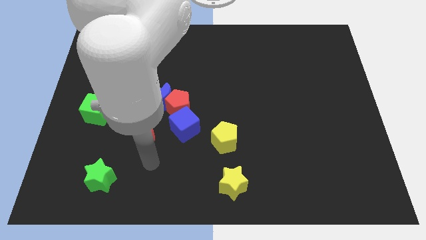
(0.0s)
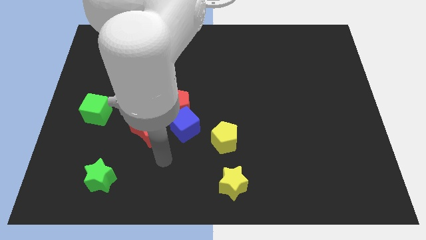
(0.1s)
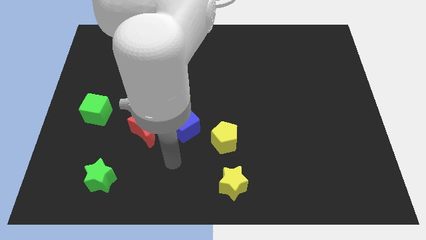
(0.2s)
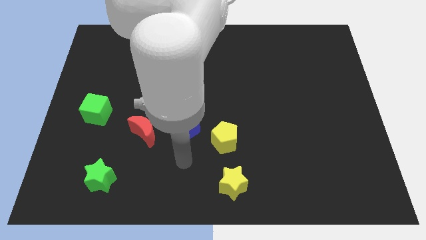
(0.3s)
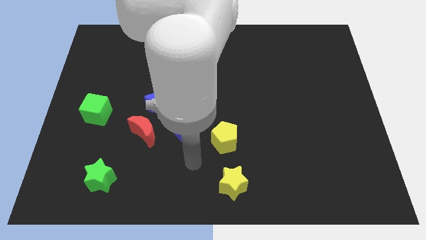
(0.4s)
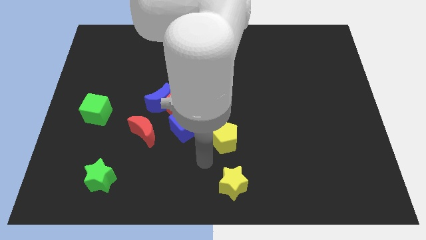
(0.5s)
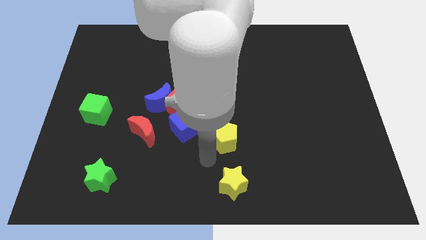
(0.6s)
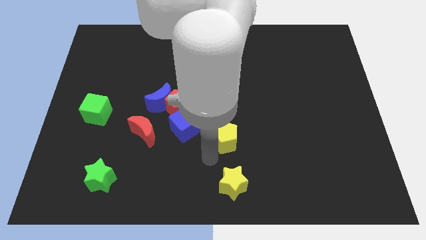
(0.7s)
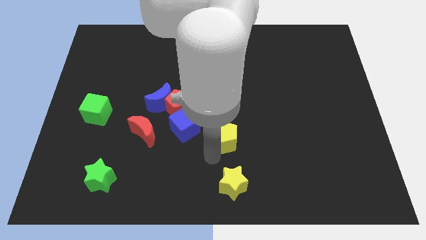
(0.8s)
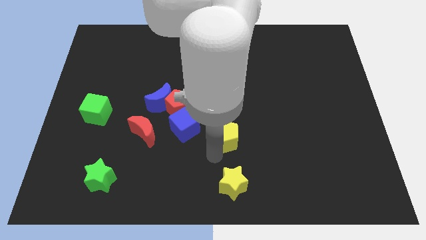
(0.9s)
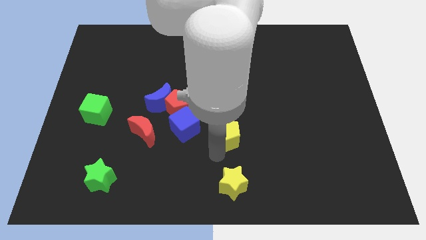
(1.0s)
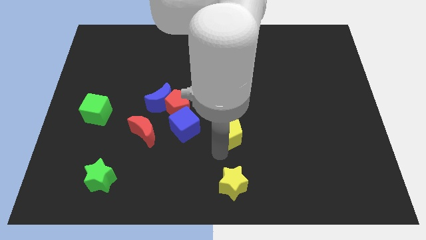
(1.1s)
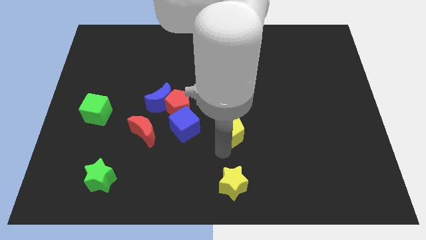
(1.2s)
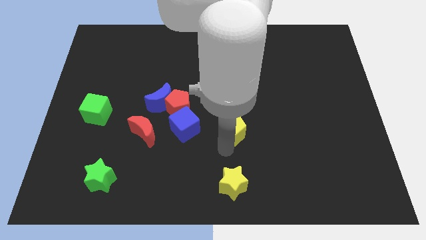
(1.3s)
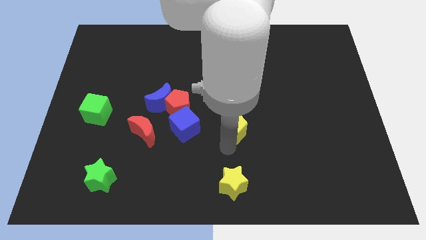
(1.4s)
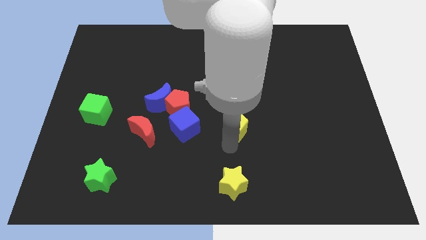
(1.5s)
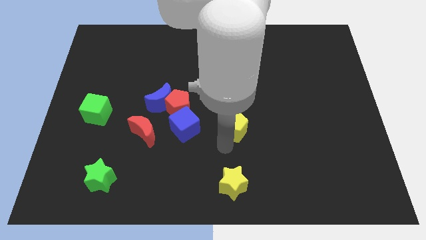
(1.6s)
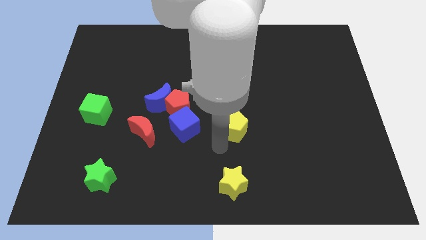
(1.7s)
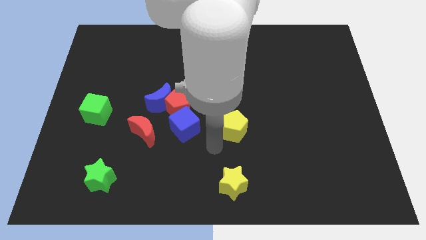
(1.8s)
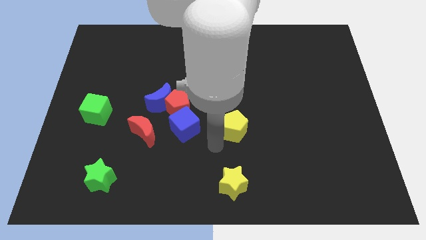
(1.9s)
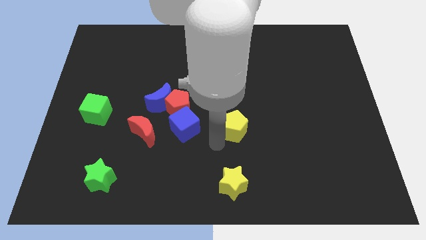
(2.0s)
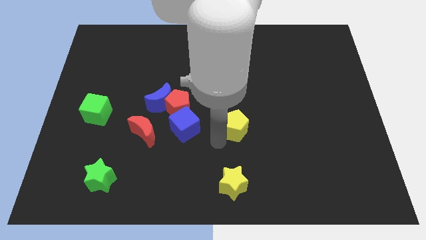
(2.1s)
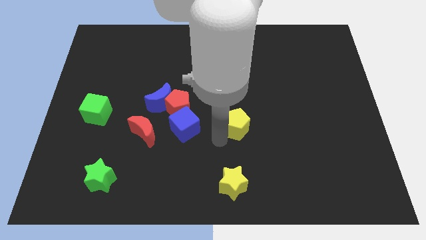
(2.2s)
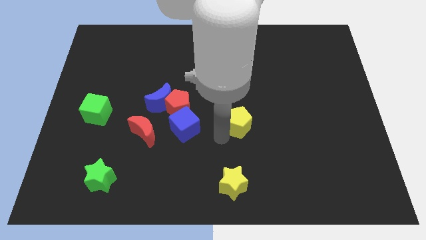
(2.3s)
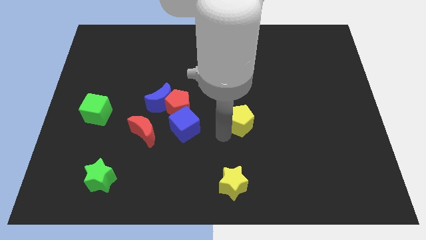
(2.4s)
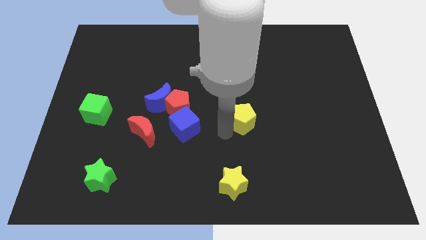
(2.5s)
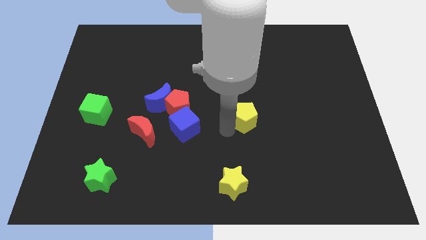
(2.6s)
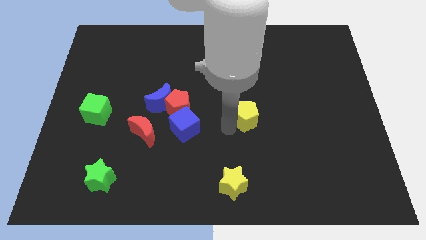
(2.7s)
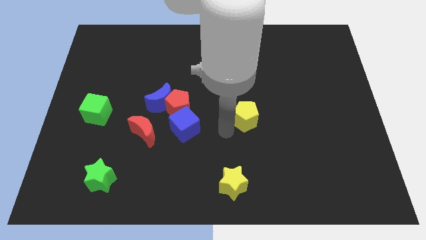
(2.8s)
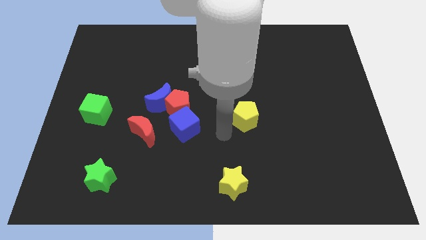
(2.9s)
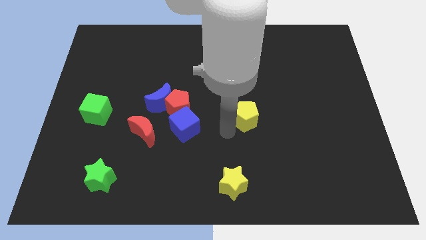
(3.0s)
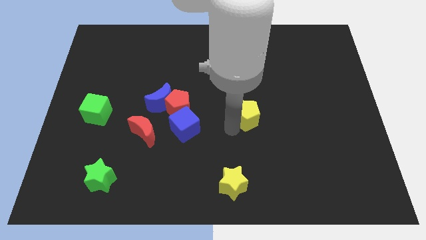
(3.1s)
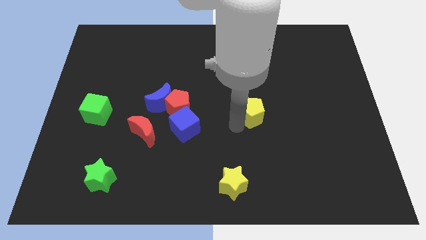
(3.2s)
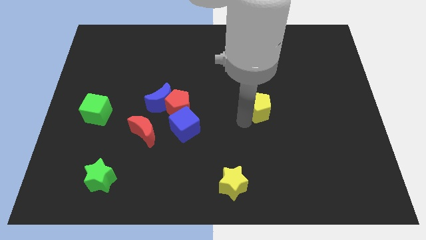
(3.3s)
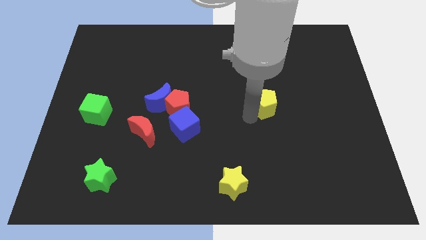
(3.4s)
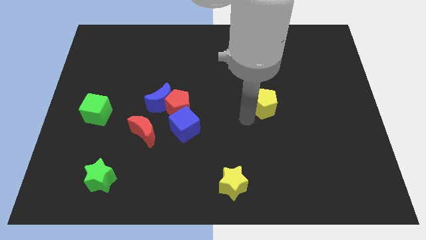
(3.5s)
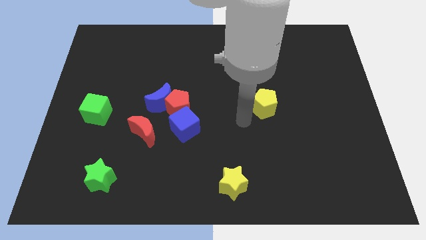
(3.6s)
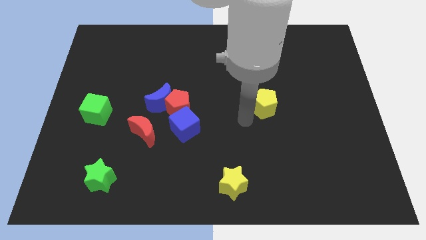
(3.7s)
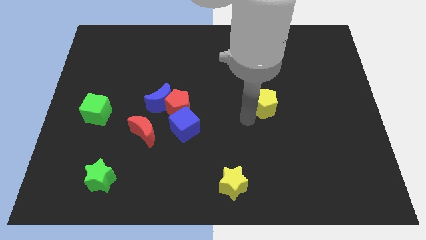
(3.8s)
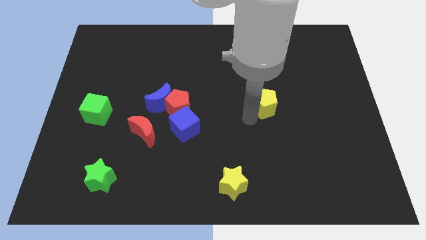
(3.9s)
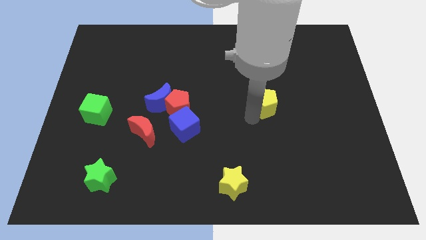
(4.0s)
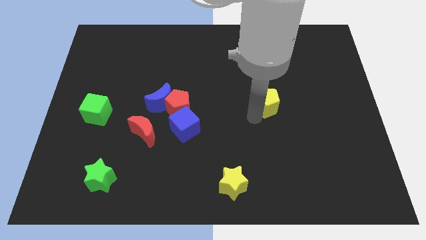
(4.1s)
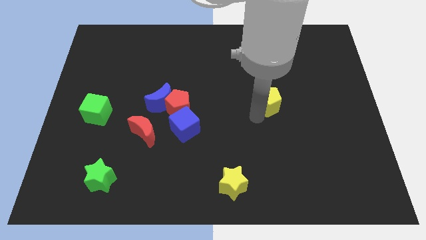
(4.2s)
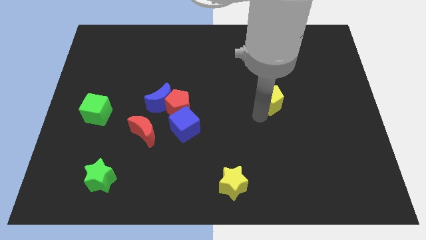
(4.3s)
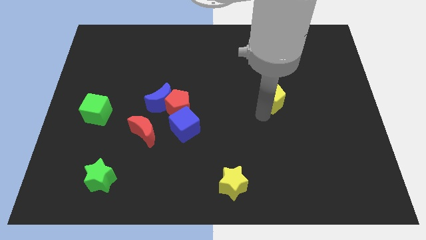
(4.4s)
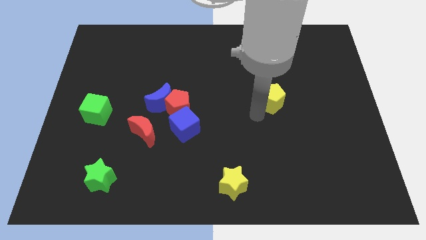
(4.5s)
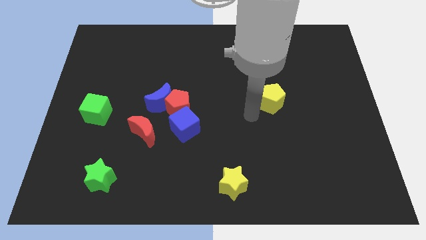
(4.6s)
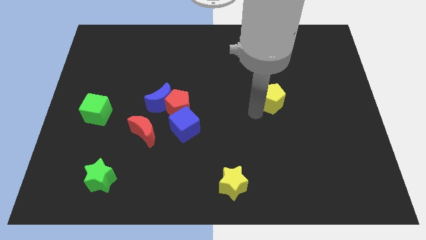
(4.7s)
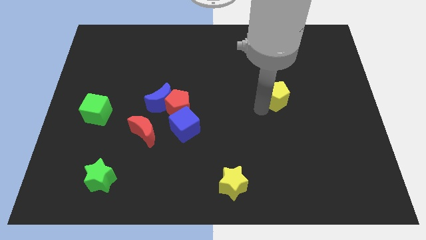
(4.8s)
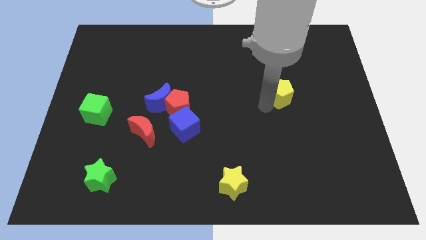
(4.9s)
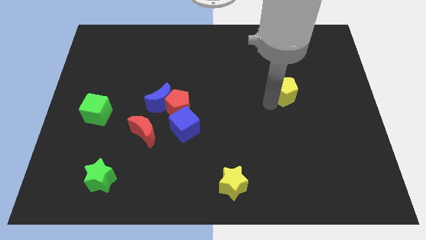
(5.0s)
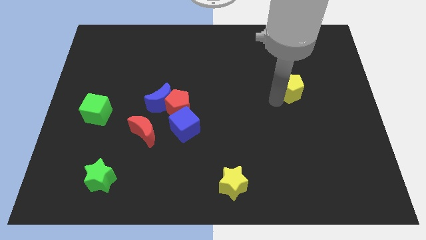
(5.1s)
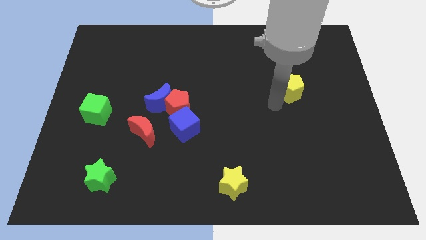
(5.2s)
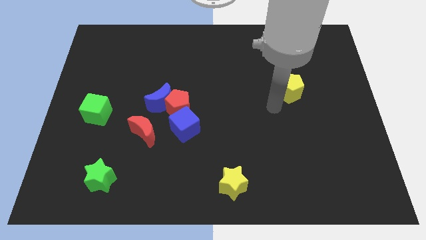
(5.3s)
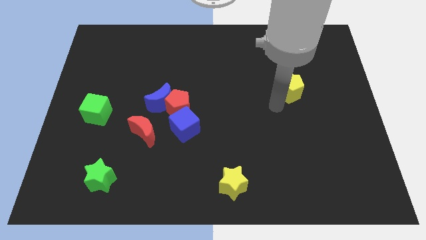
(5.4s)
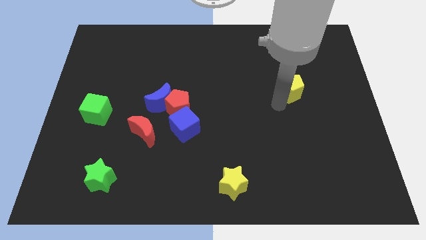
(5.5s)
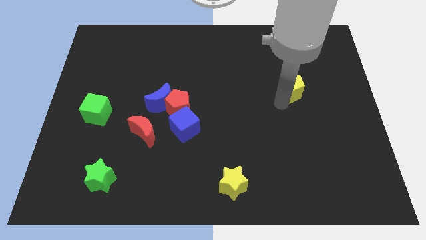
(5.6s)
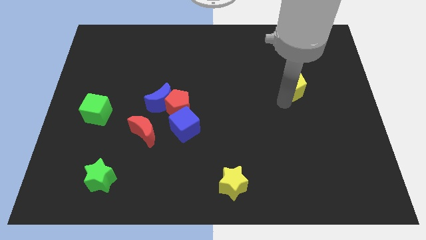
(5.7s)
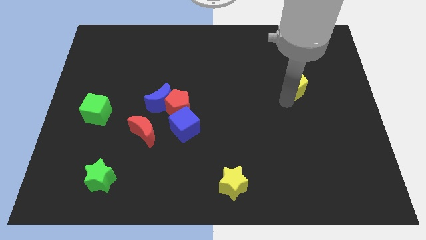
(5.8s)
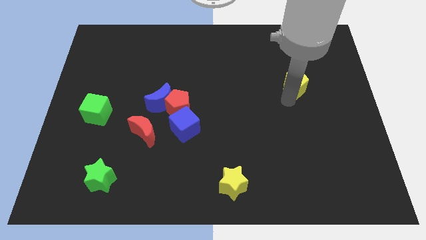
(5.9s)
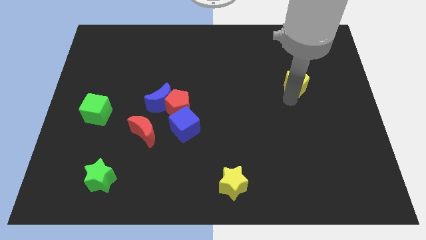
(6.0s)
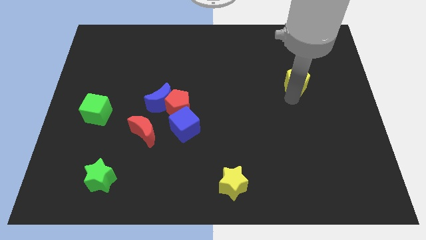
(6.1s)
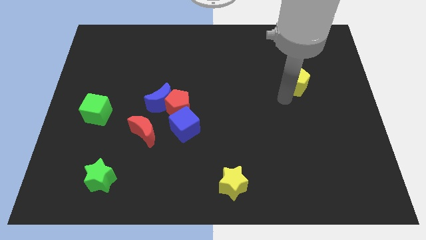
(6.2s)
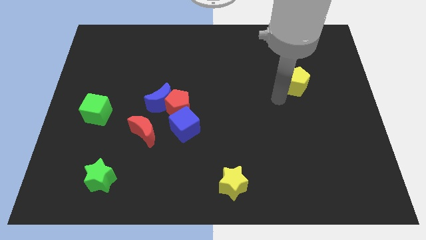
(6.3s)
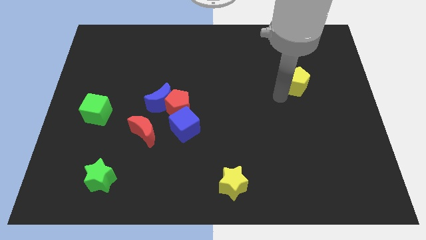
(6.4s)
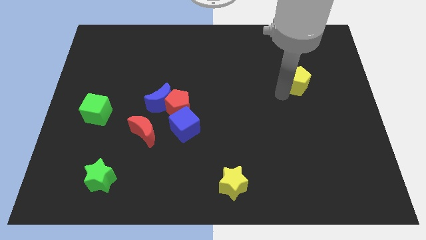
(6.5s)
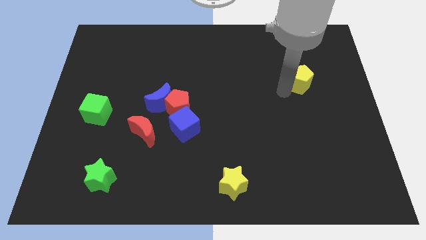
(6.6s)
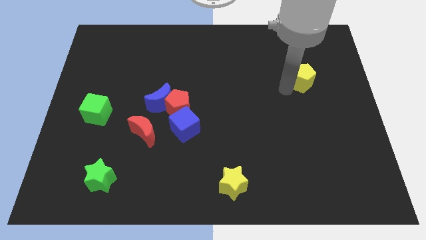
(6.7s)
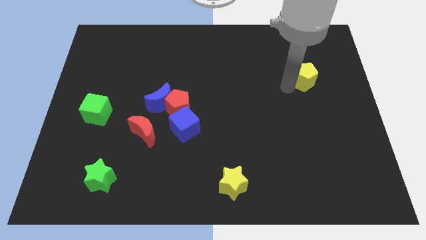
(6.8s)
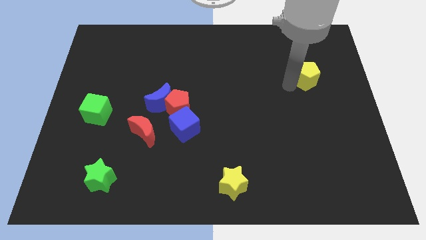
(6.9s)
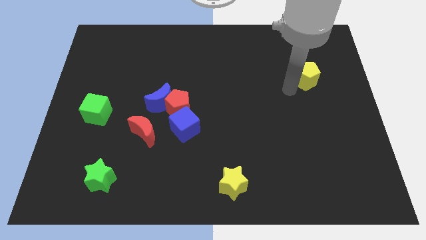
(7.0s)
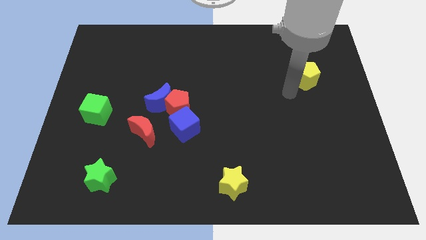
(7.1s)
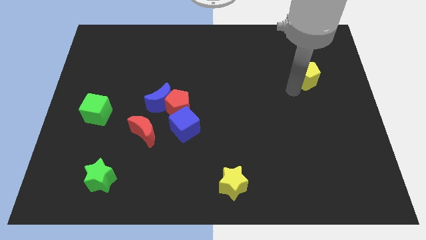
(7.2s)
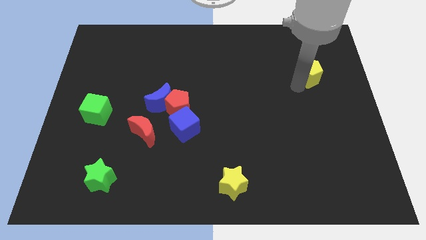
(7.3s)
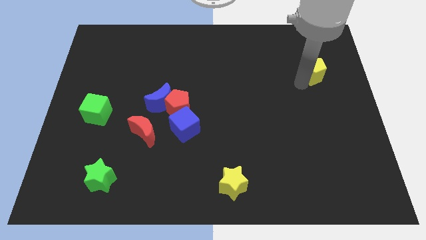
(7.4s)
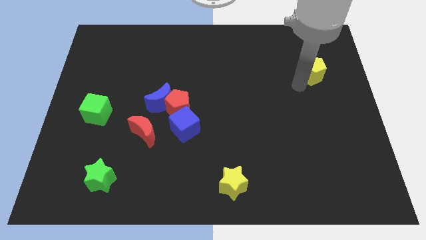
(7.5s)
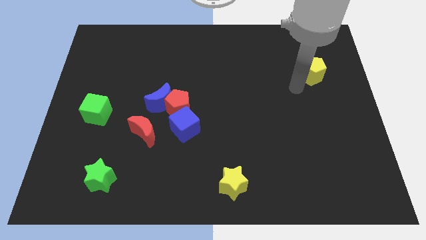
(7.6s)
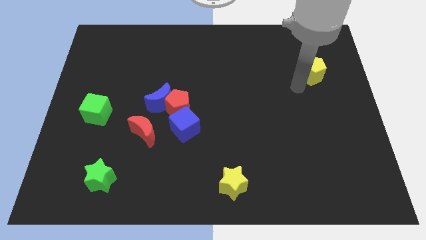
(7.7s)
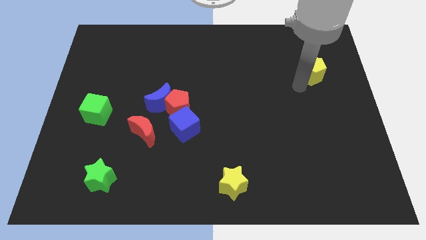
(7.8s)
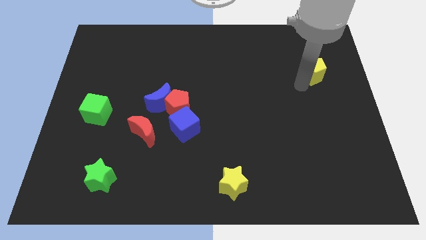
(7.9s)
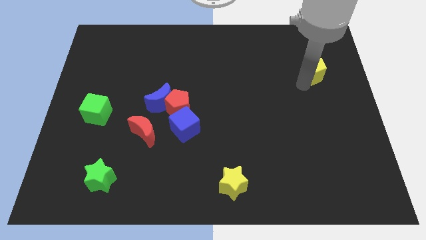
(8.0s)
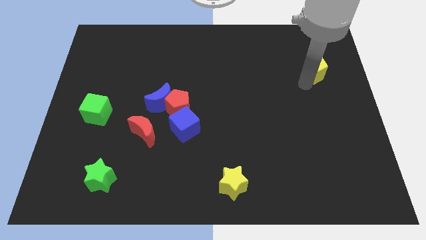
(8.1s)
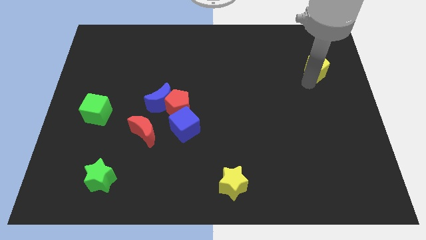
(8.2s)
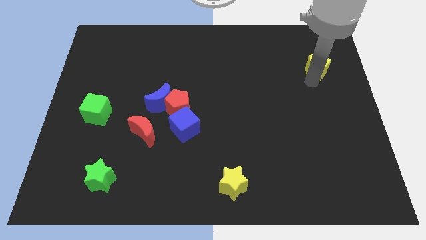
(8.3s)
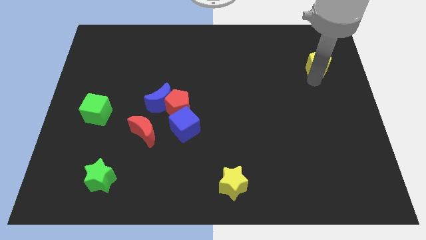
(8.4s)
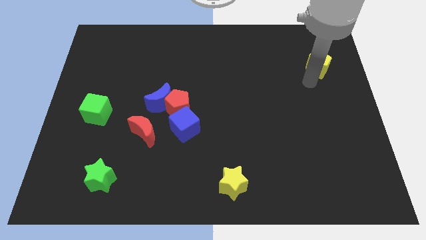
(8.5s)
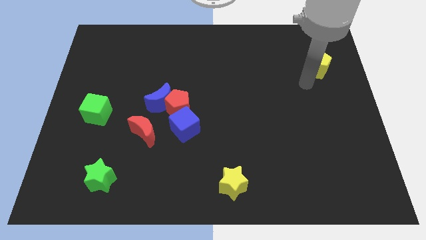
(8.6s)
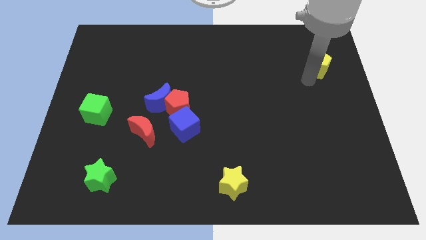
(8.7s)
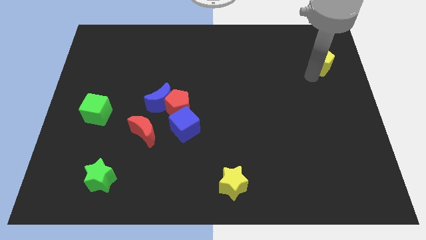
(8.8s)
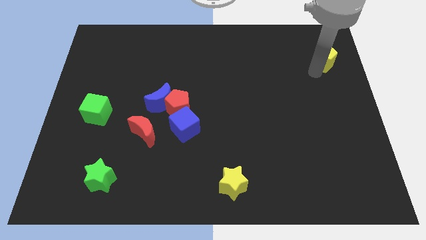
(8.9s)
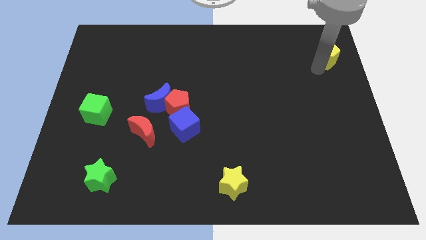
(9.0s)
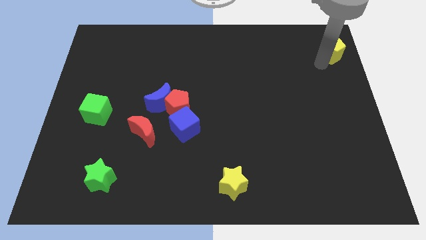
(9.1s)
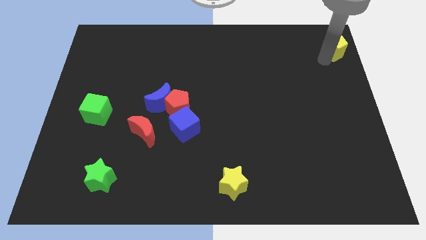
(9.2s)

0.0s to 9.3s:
push the yellow pentagon to the top right of the board
